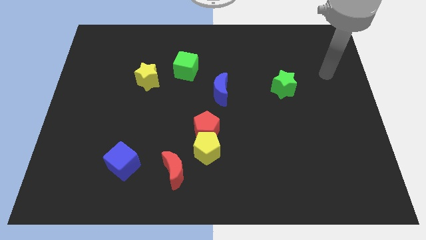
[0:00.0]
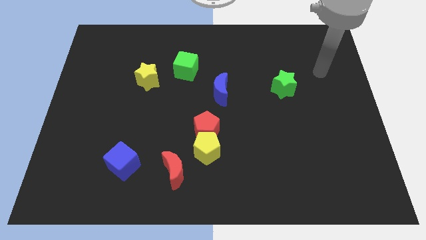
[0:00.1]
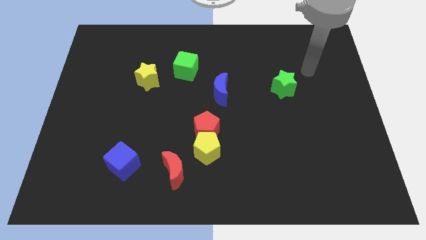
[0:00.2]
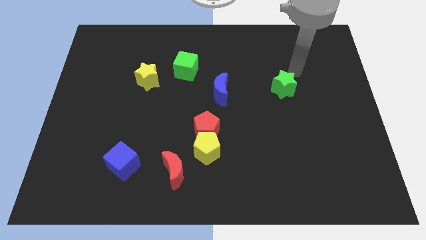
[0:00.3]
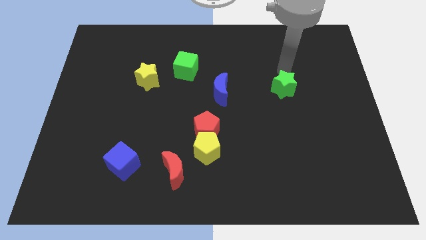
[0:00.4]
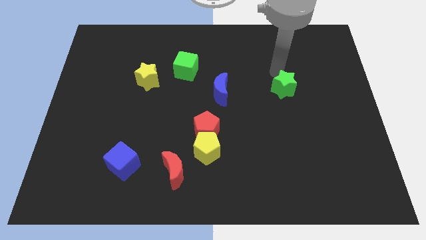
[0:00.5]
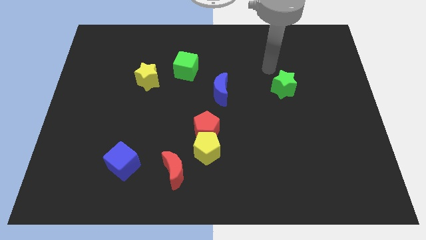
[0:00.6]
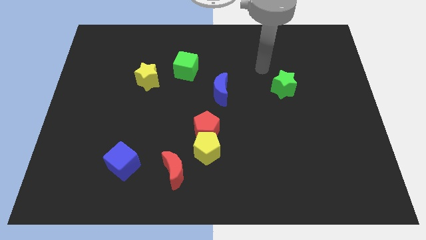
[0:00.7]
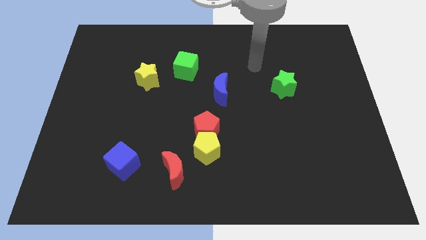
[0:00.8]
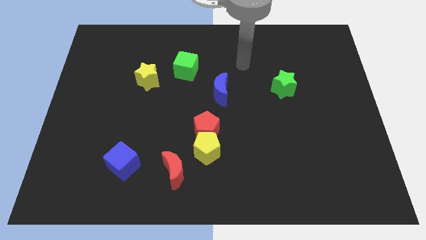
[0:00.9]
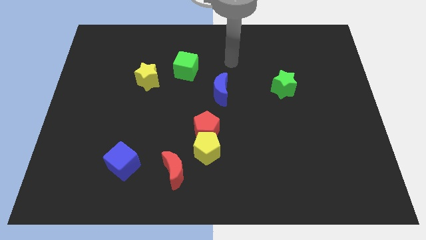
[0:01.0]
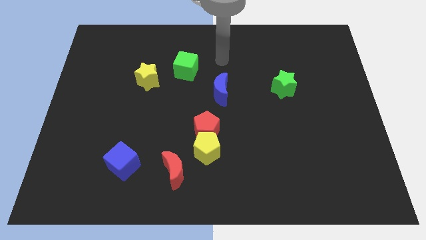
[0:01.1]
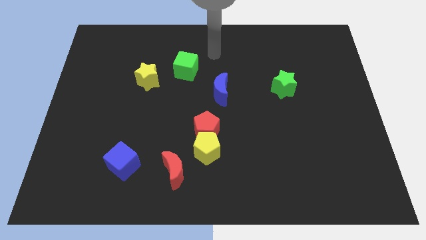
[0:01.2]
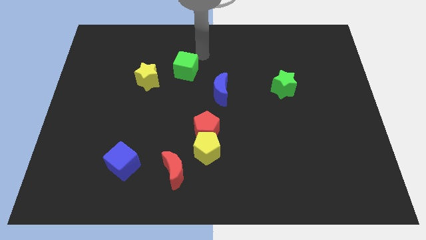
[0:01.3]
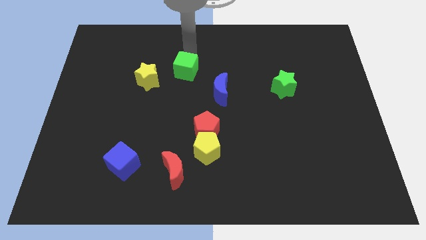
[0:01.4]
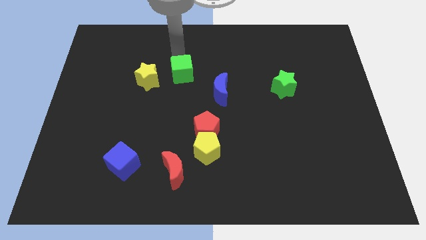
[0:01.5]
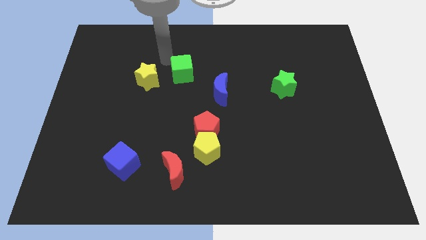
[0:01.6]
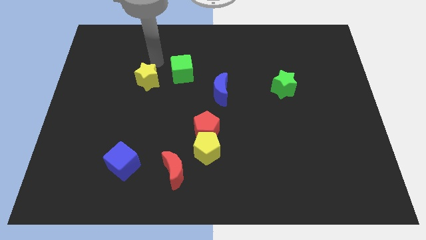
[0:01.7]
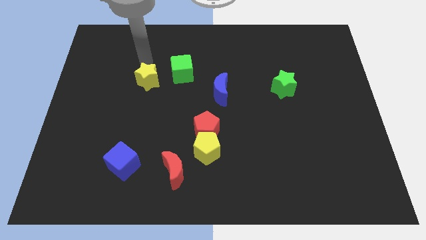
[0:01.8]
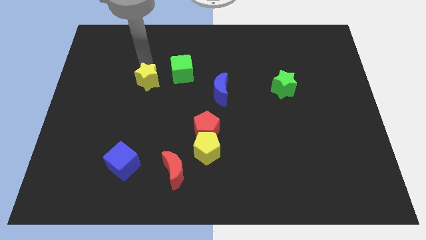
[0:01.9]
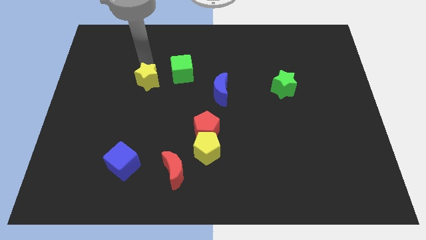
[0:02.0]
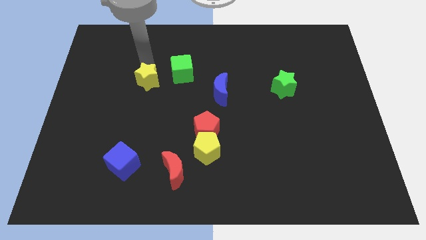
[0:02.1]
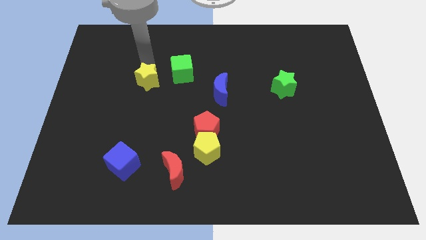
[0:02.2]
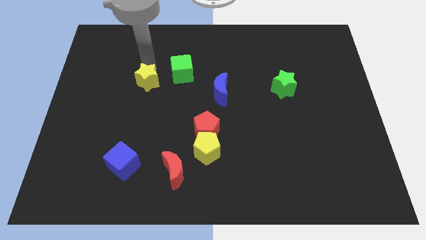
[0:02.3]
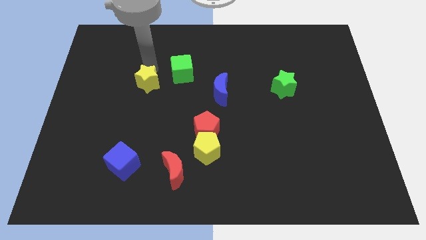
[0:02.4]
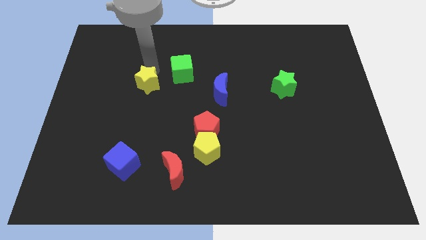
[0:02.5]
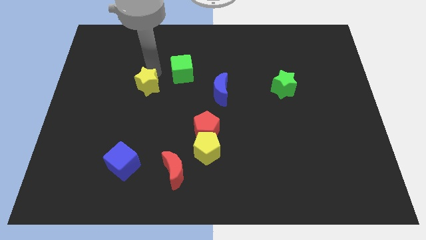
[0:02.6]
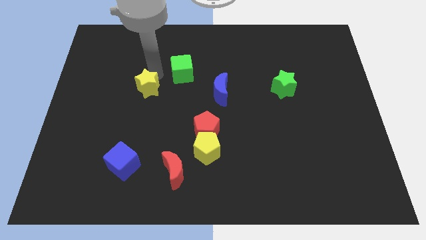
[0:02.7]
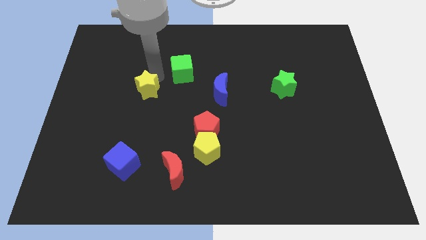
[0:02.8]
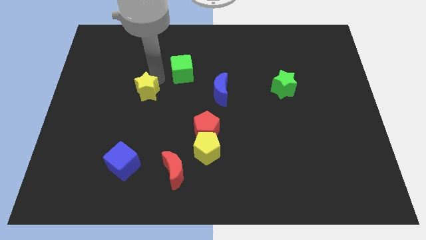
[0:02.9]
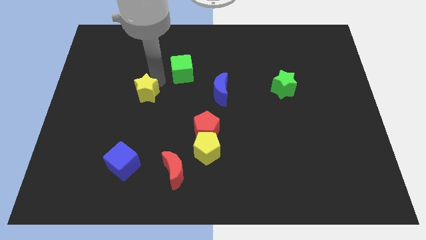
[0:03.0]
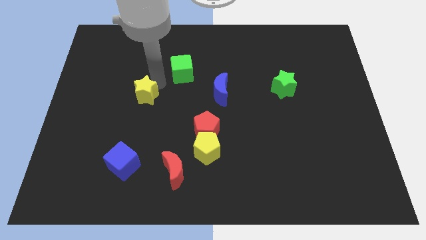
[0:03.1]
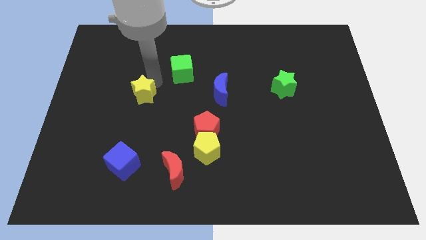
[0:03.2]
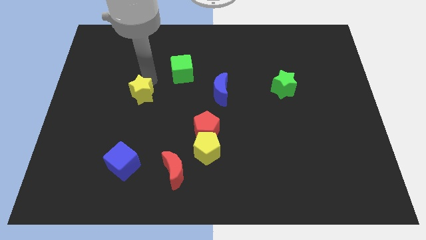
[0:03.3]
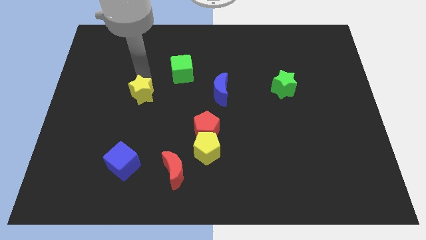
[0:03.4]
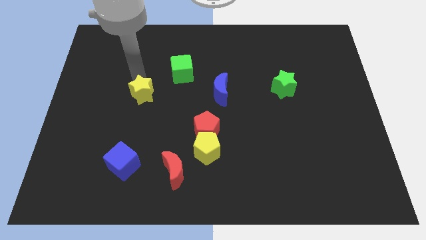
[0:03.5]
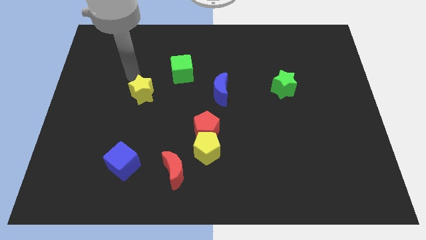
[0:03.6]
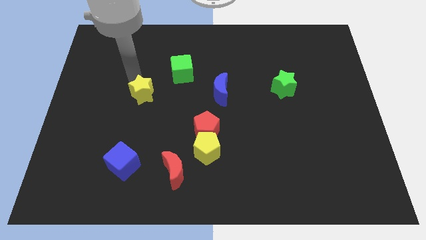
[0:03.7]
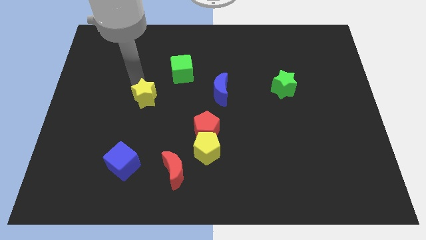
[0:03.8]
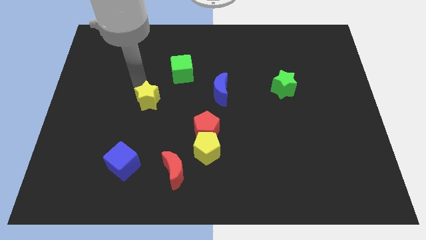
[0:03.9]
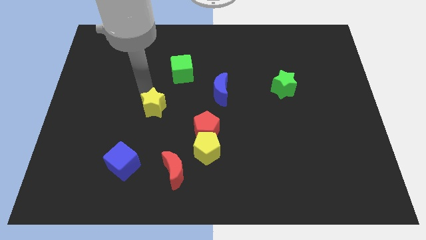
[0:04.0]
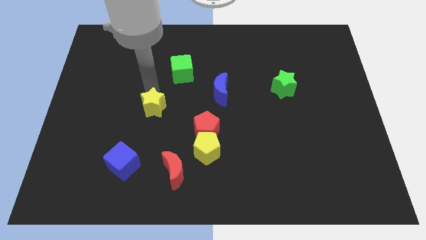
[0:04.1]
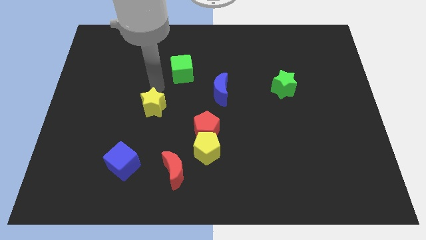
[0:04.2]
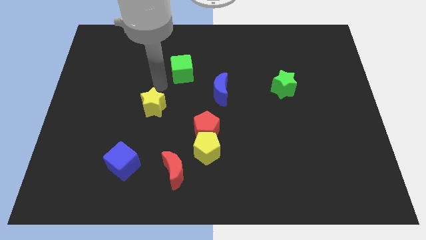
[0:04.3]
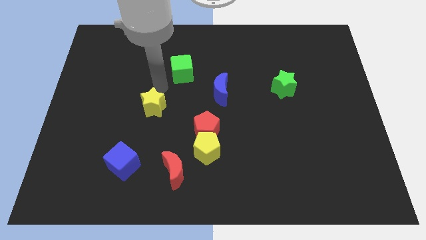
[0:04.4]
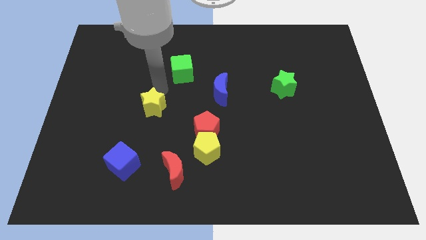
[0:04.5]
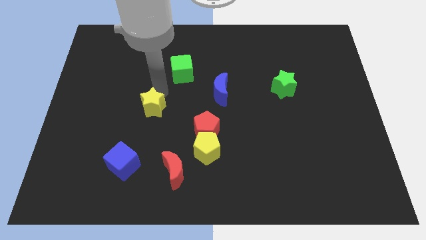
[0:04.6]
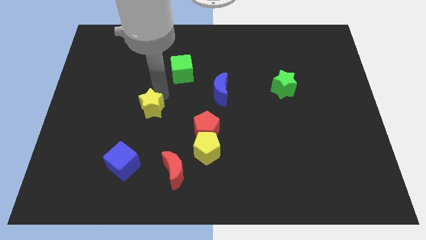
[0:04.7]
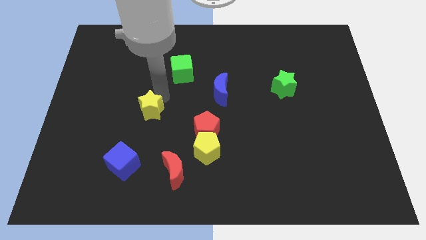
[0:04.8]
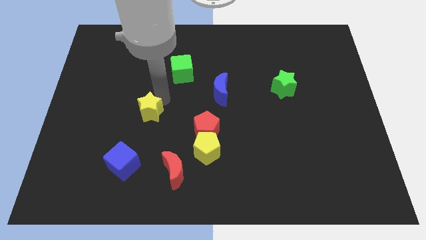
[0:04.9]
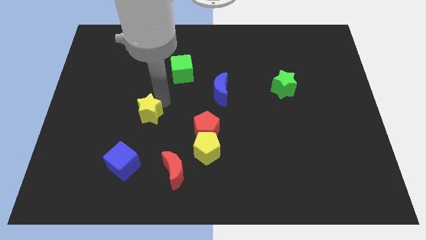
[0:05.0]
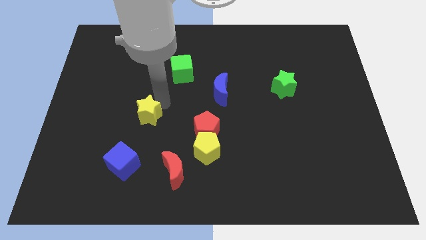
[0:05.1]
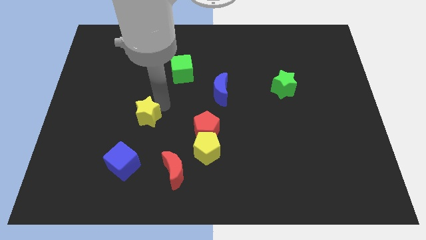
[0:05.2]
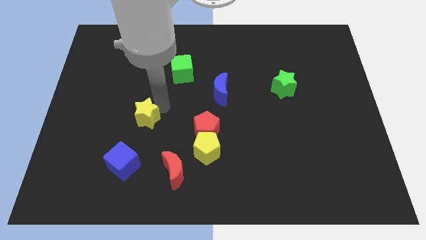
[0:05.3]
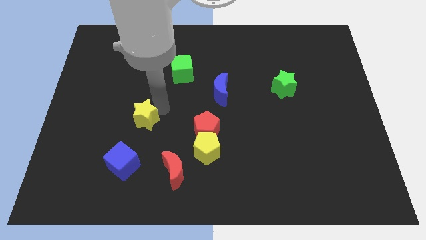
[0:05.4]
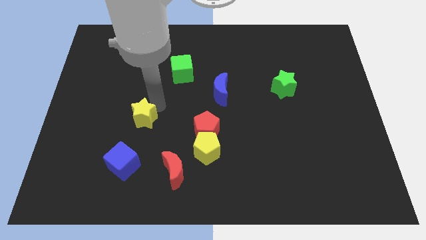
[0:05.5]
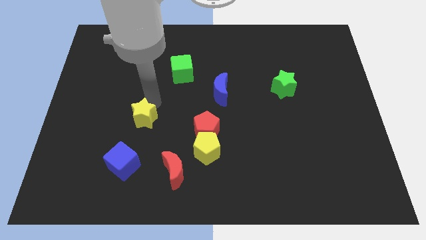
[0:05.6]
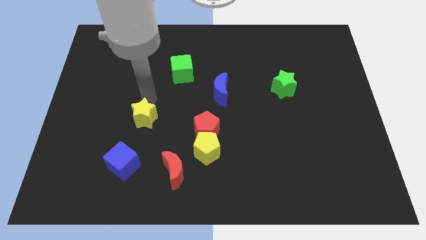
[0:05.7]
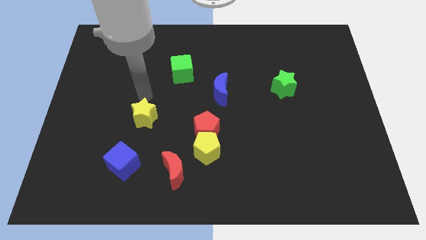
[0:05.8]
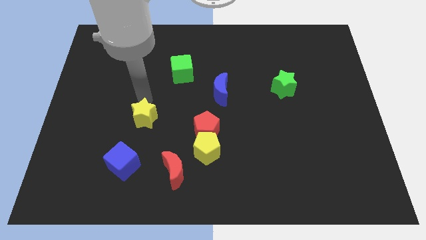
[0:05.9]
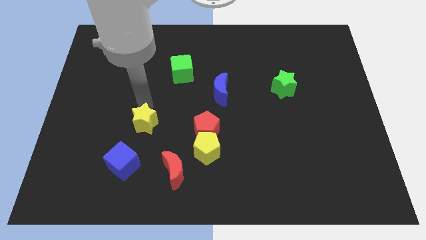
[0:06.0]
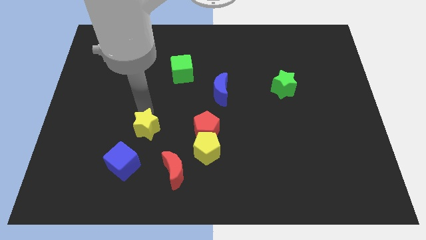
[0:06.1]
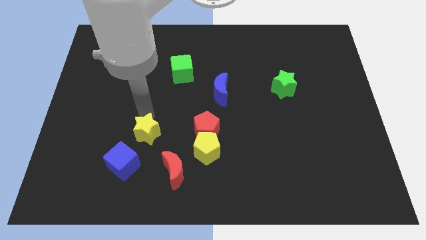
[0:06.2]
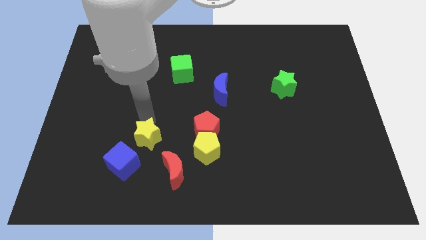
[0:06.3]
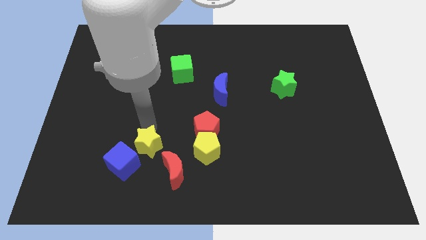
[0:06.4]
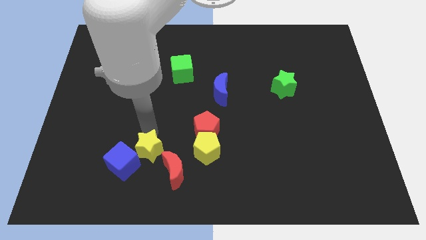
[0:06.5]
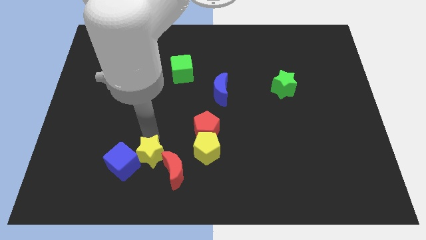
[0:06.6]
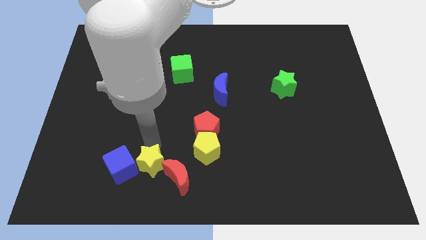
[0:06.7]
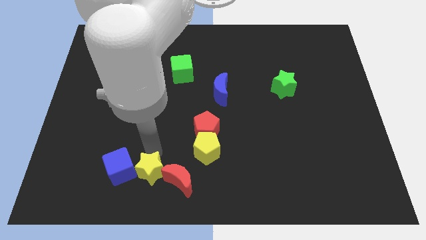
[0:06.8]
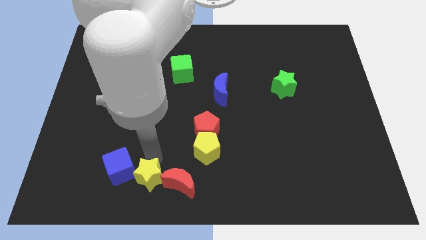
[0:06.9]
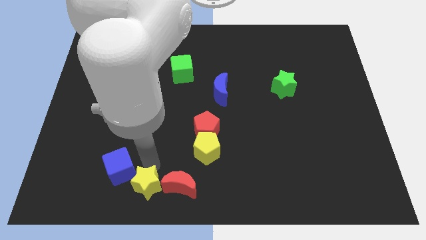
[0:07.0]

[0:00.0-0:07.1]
put the yellow star to the bottom side
